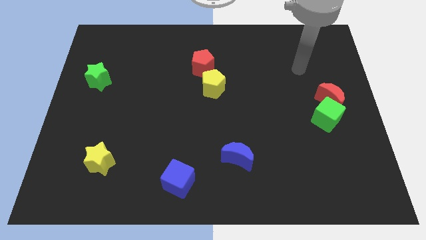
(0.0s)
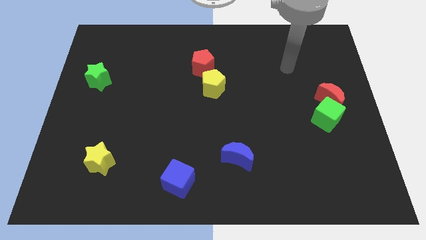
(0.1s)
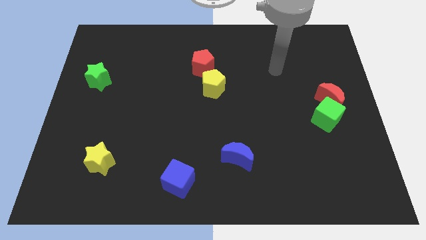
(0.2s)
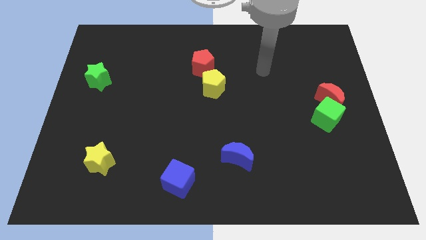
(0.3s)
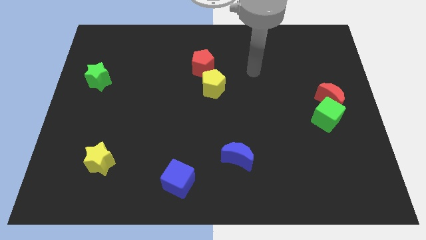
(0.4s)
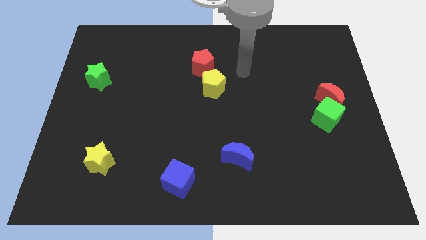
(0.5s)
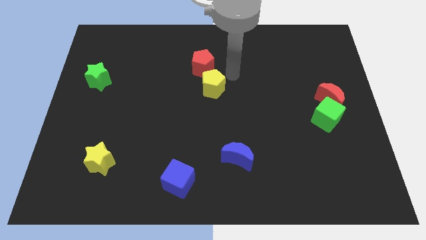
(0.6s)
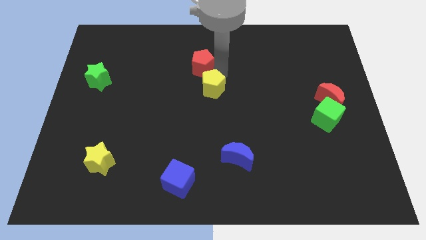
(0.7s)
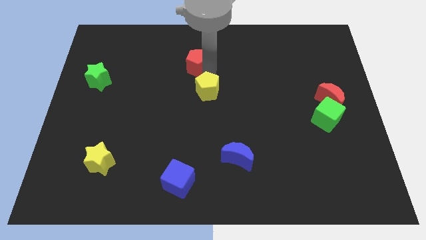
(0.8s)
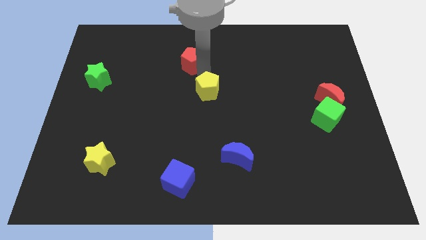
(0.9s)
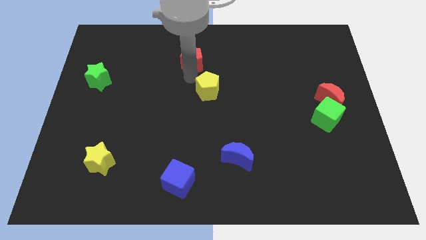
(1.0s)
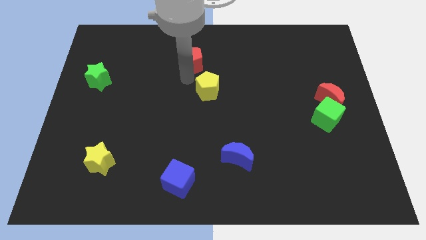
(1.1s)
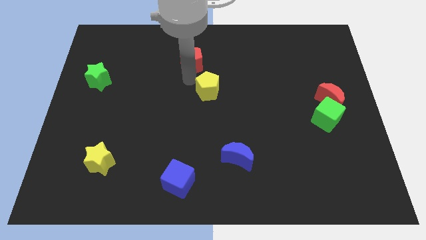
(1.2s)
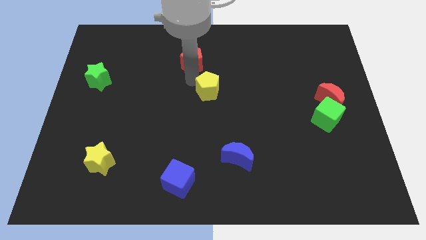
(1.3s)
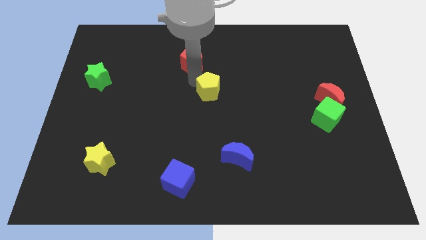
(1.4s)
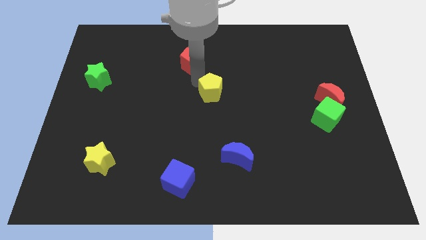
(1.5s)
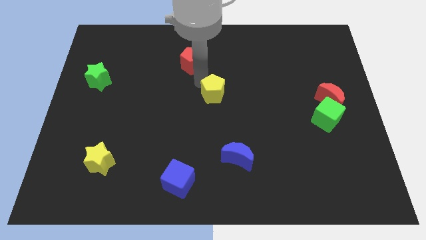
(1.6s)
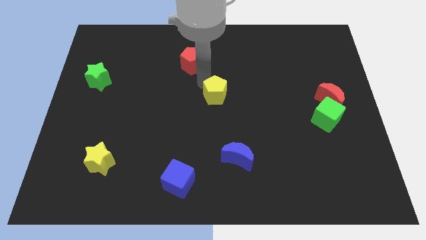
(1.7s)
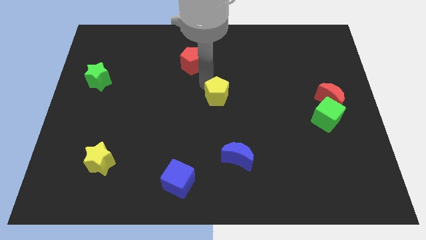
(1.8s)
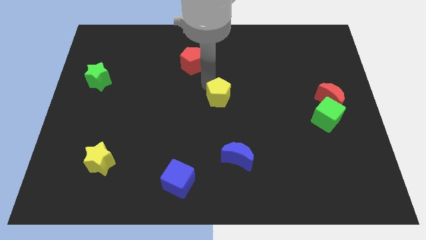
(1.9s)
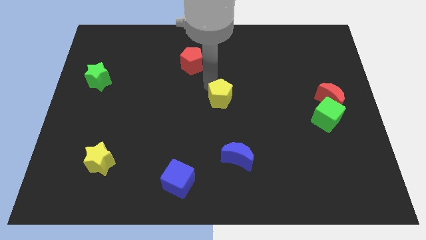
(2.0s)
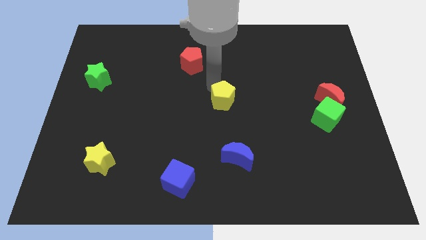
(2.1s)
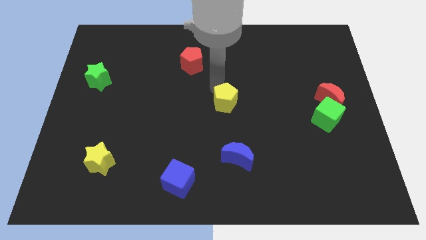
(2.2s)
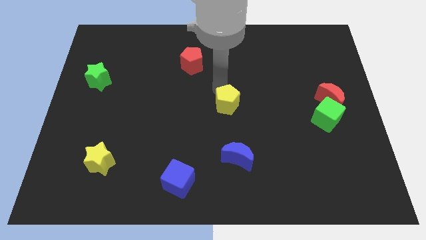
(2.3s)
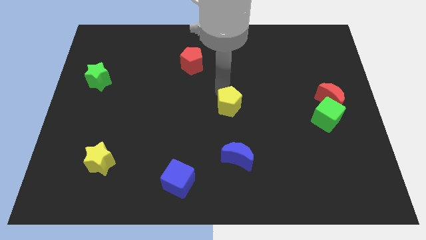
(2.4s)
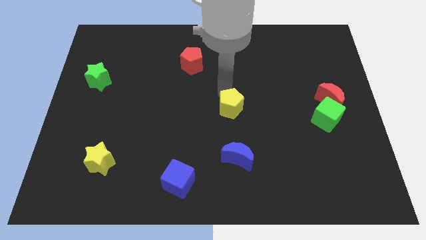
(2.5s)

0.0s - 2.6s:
push the yellow pentagon slightly diagonally downwards and right

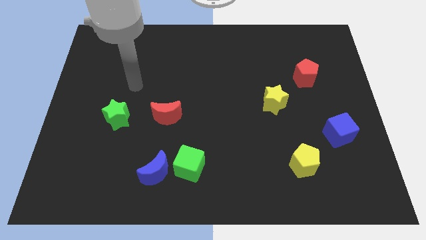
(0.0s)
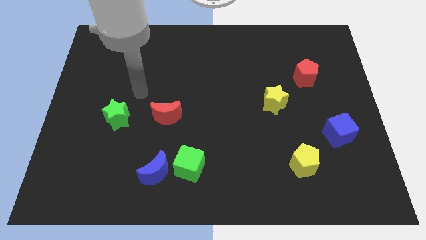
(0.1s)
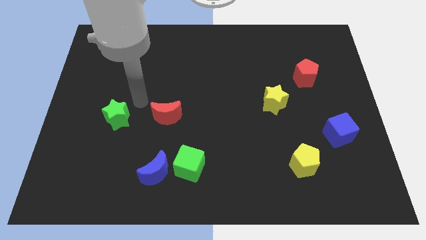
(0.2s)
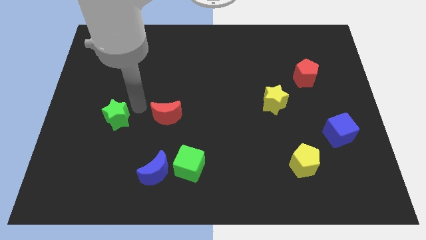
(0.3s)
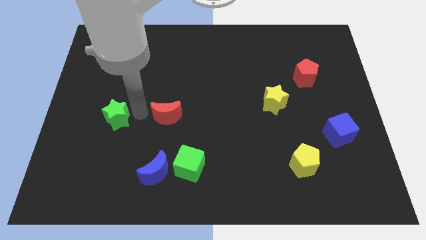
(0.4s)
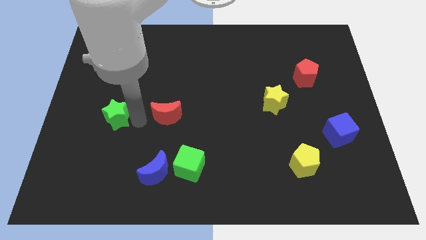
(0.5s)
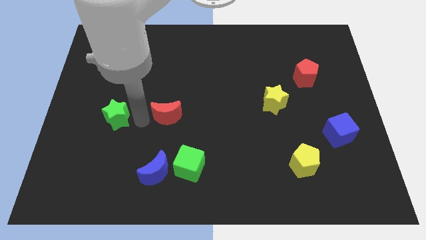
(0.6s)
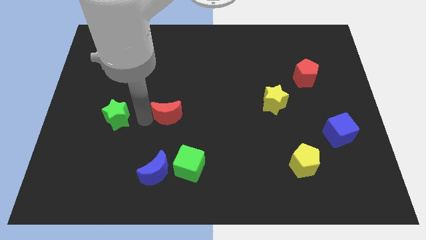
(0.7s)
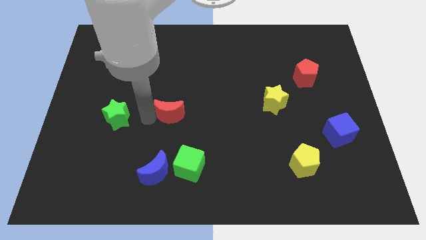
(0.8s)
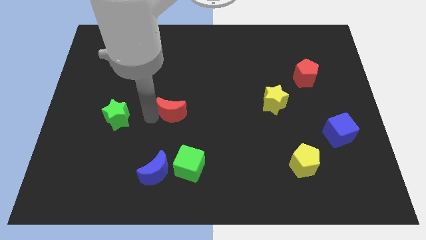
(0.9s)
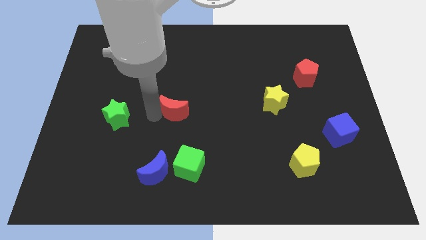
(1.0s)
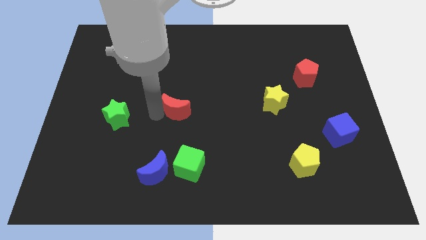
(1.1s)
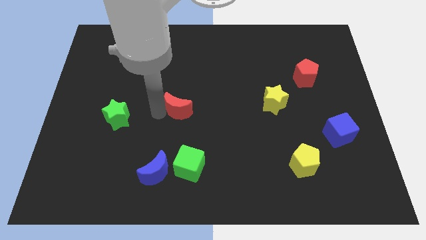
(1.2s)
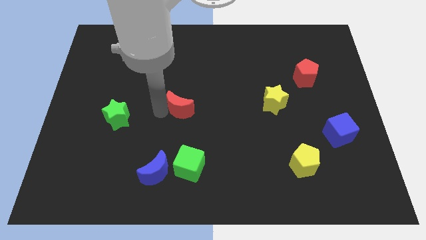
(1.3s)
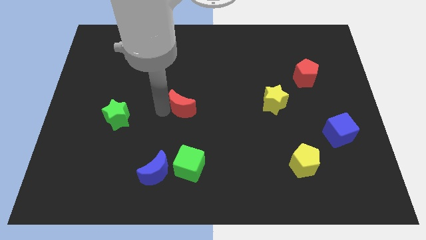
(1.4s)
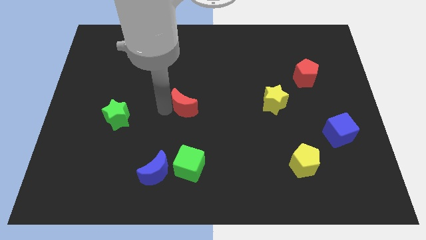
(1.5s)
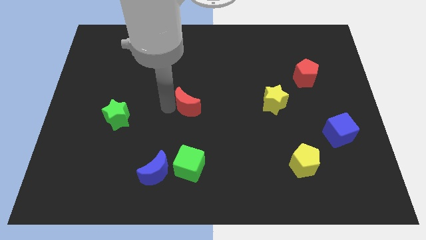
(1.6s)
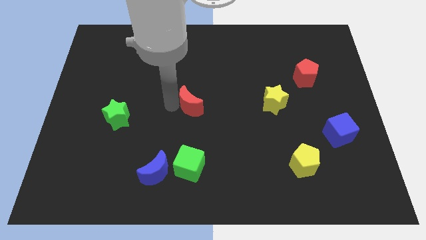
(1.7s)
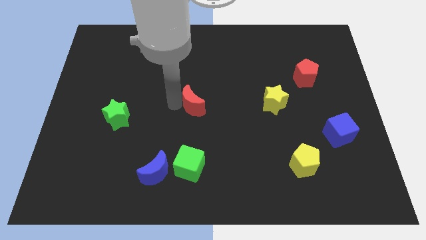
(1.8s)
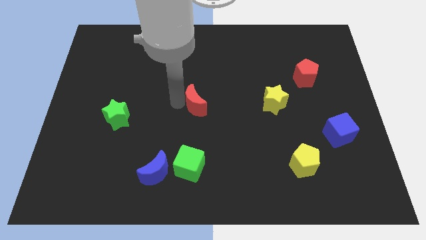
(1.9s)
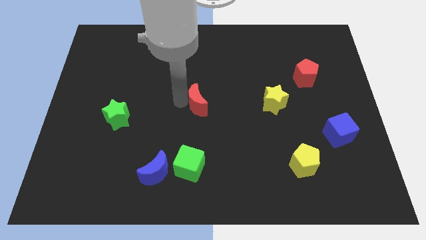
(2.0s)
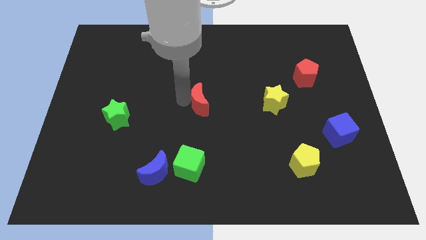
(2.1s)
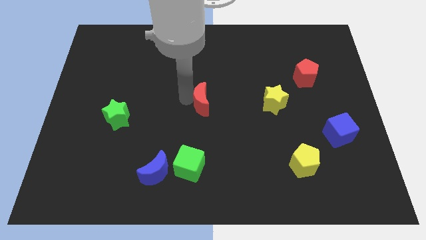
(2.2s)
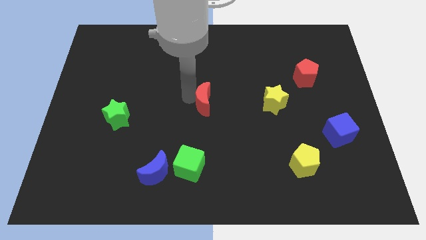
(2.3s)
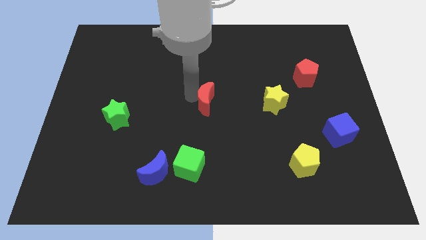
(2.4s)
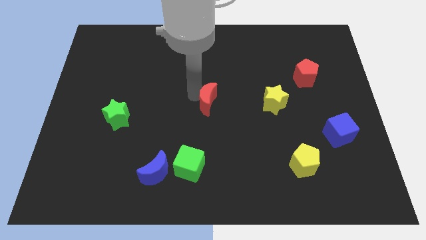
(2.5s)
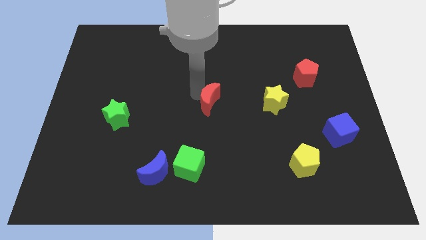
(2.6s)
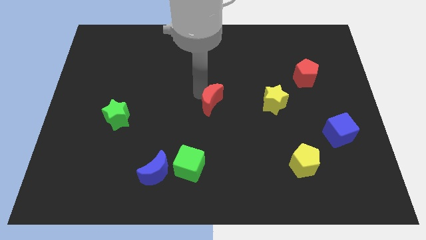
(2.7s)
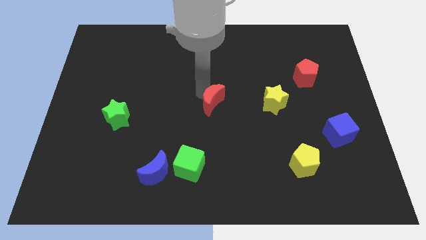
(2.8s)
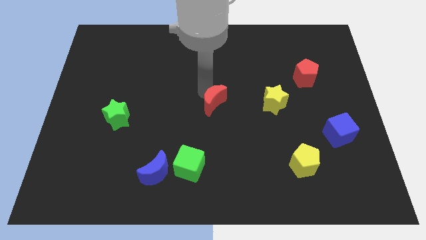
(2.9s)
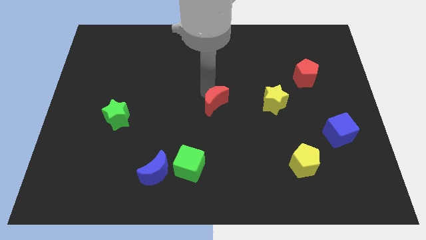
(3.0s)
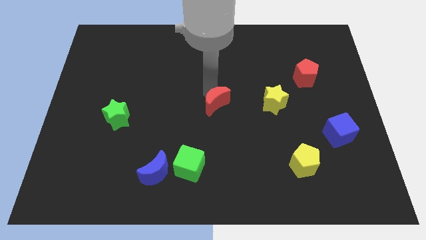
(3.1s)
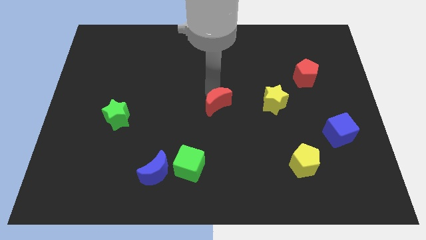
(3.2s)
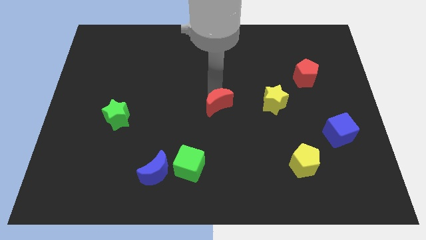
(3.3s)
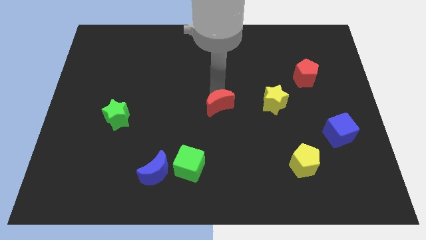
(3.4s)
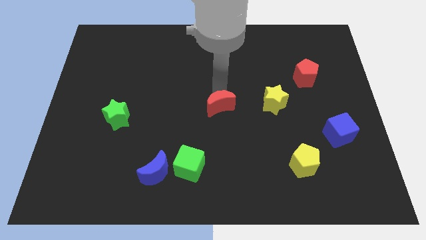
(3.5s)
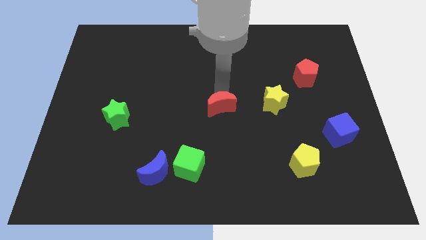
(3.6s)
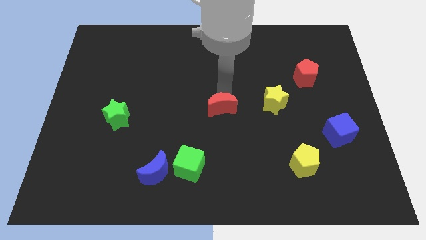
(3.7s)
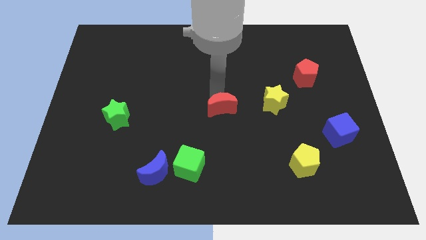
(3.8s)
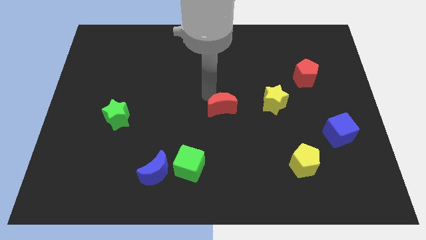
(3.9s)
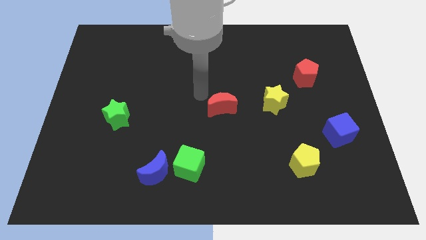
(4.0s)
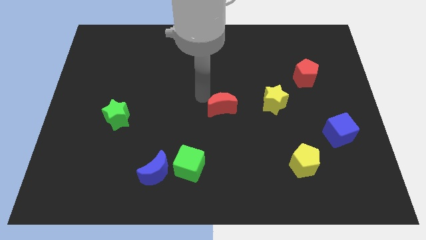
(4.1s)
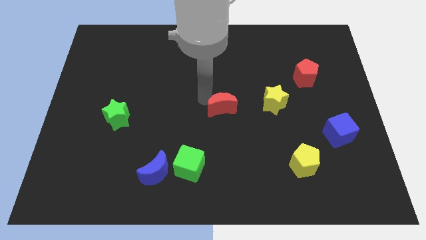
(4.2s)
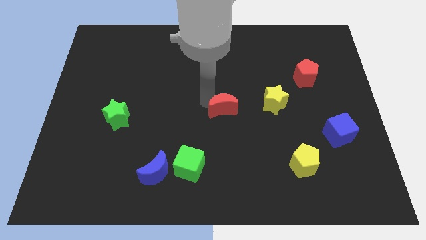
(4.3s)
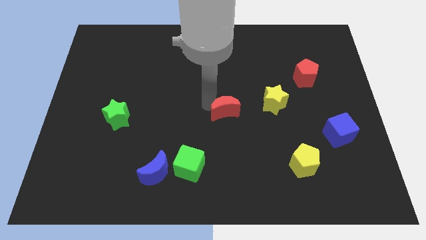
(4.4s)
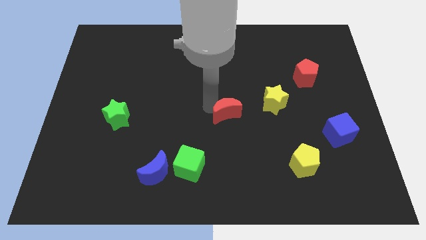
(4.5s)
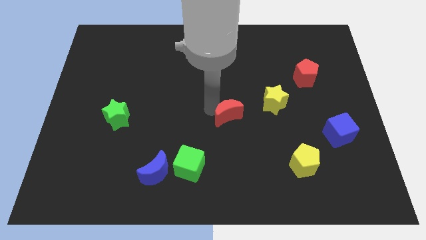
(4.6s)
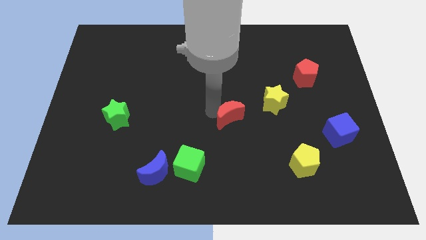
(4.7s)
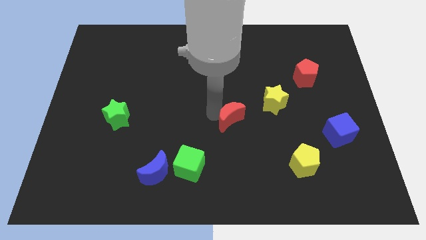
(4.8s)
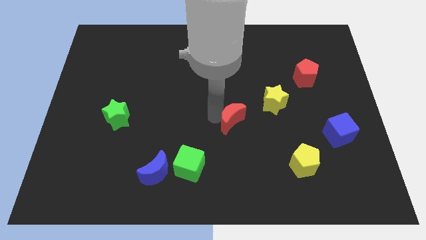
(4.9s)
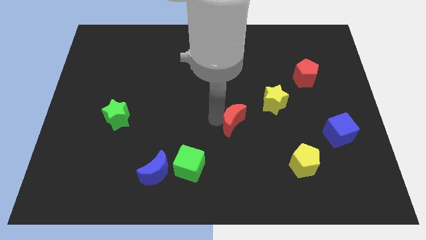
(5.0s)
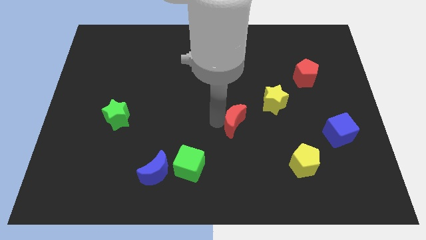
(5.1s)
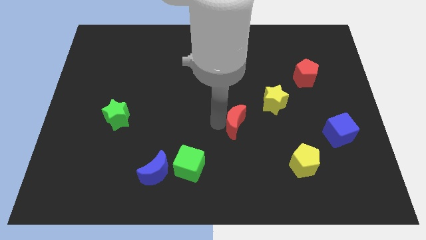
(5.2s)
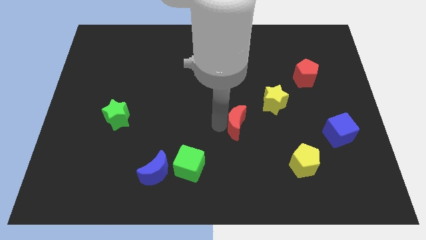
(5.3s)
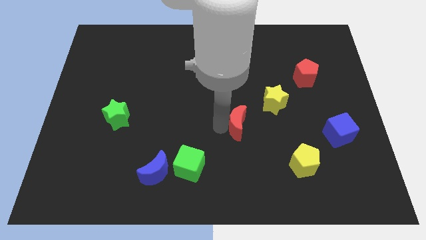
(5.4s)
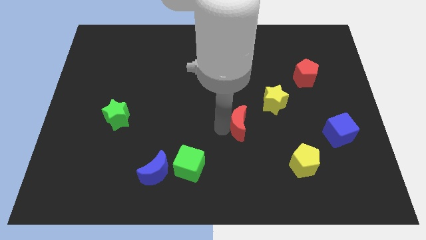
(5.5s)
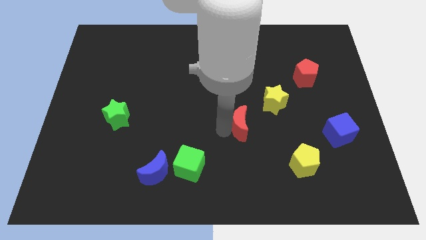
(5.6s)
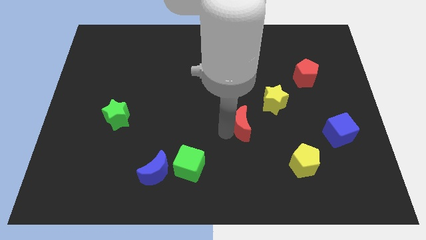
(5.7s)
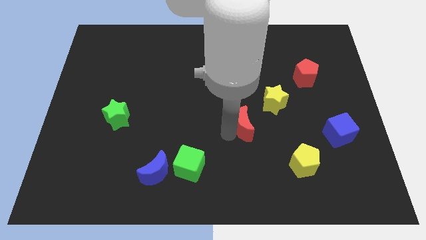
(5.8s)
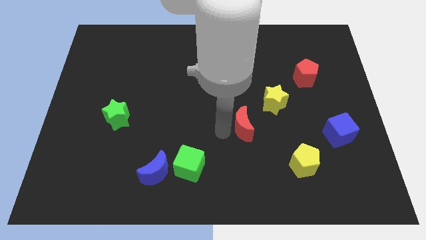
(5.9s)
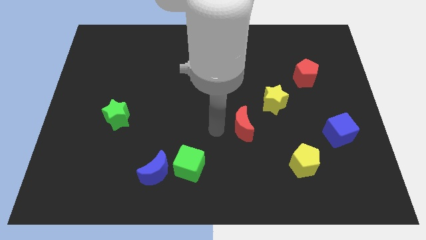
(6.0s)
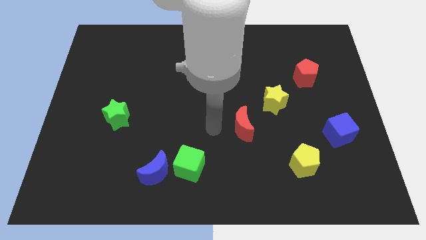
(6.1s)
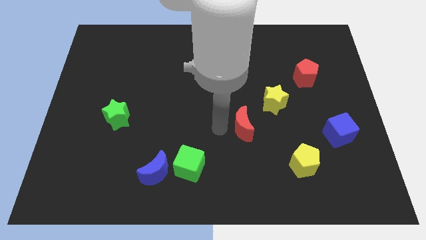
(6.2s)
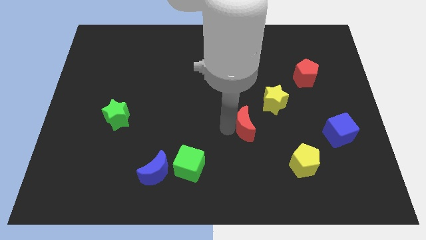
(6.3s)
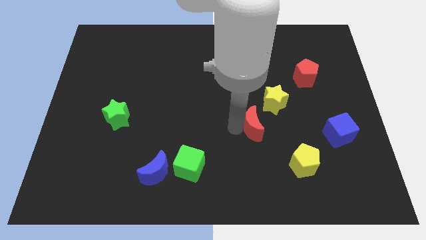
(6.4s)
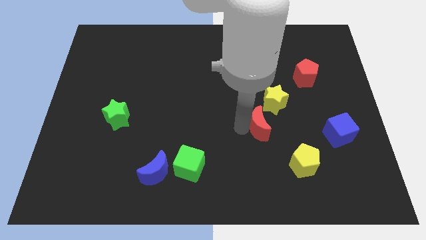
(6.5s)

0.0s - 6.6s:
slide the red moon right
